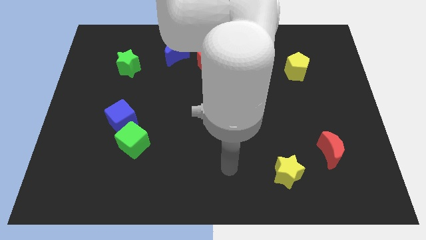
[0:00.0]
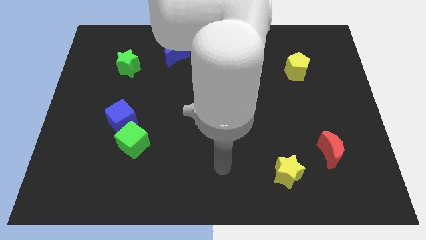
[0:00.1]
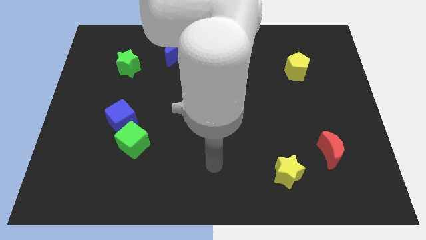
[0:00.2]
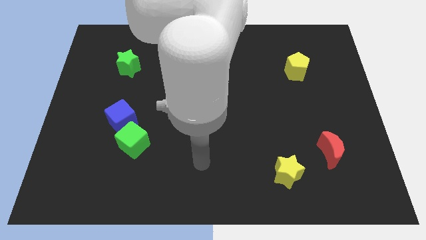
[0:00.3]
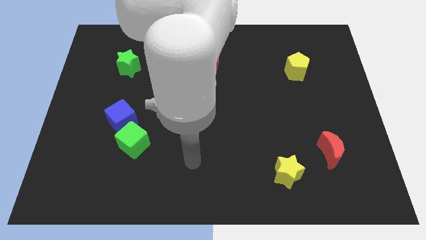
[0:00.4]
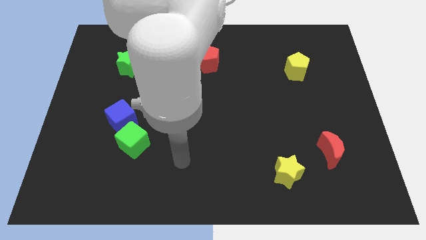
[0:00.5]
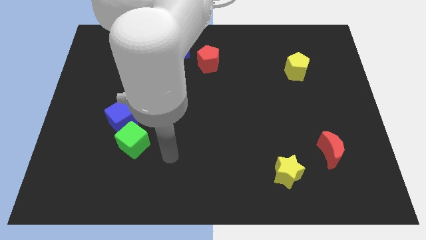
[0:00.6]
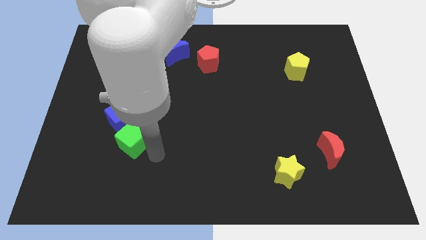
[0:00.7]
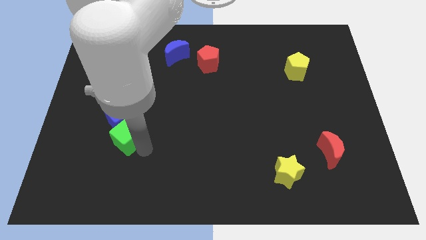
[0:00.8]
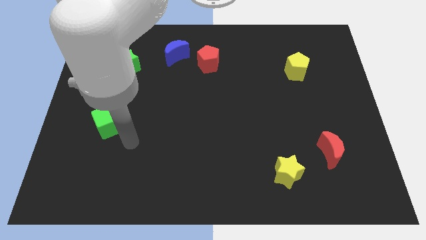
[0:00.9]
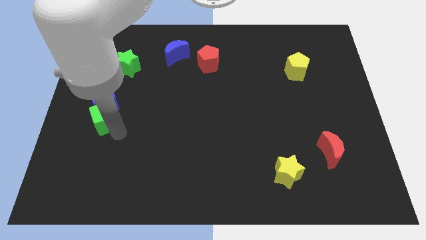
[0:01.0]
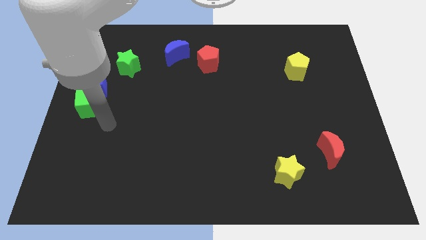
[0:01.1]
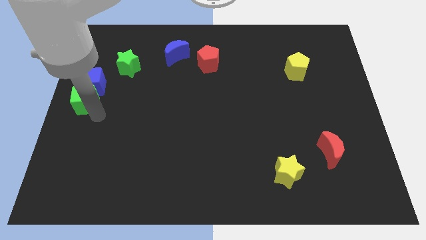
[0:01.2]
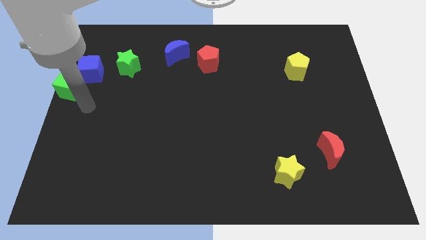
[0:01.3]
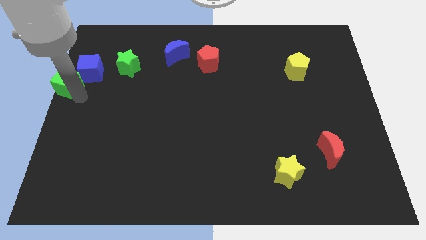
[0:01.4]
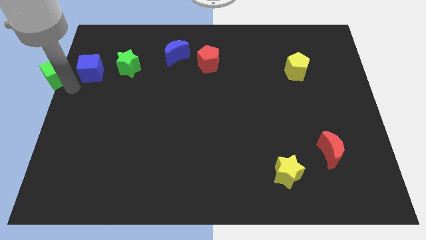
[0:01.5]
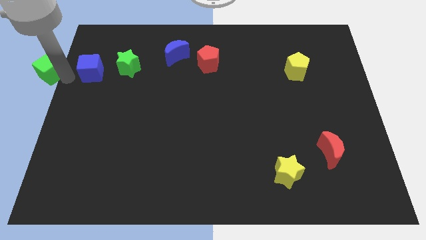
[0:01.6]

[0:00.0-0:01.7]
pull the blue cube apart from the green cube

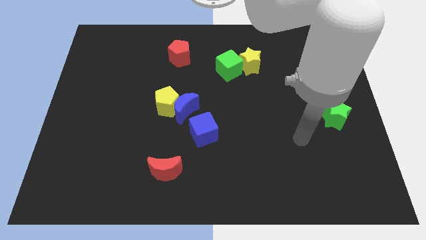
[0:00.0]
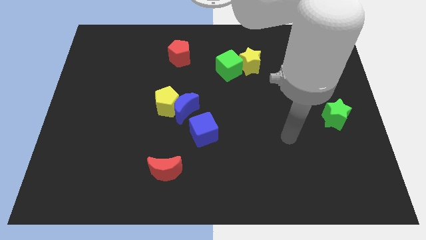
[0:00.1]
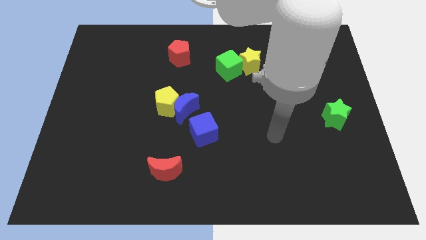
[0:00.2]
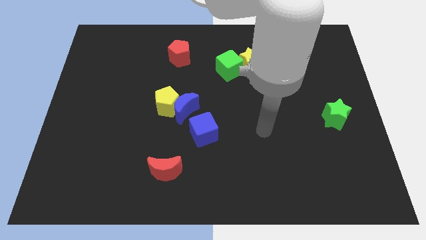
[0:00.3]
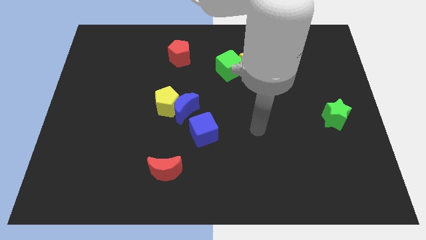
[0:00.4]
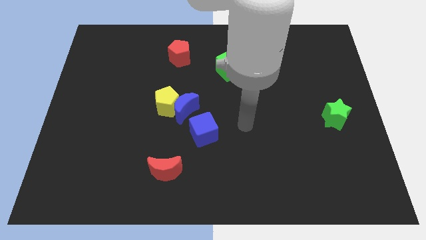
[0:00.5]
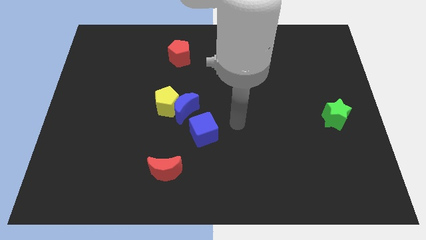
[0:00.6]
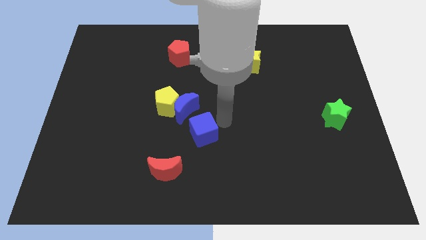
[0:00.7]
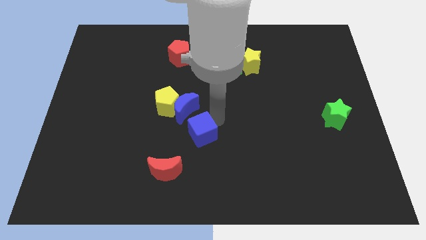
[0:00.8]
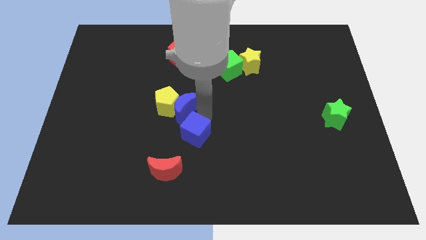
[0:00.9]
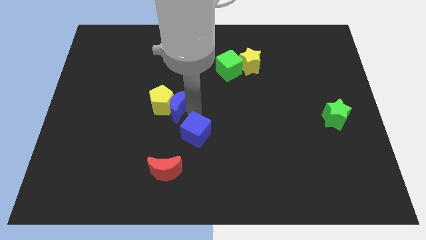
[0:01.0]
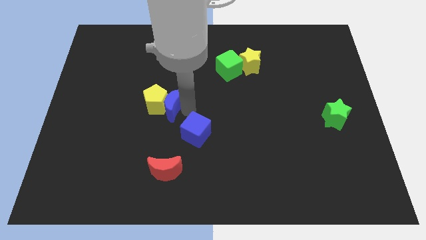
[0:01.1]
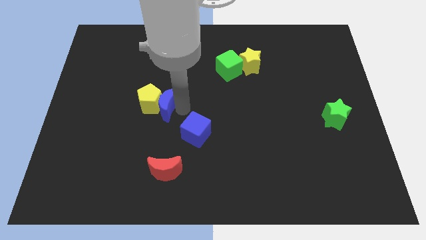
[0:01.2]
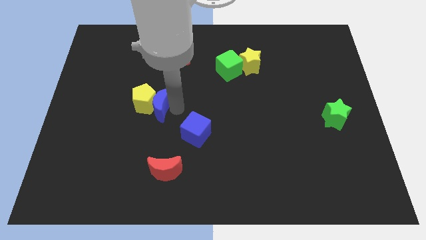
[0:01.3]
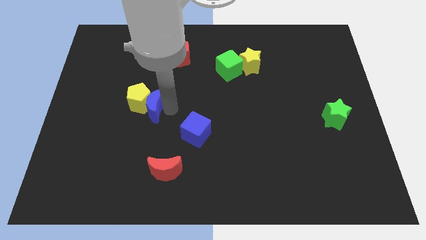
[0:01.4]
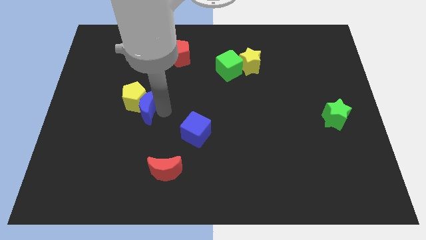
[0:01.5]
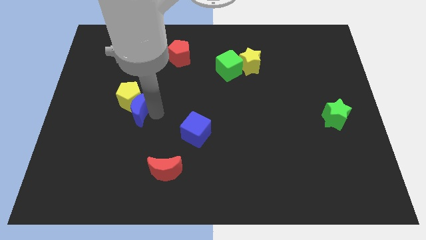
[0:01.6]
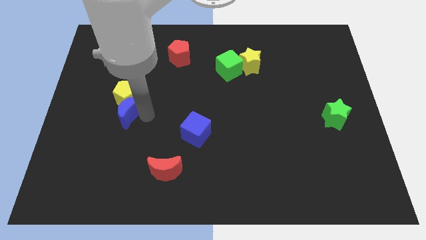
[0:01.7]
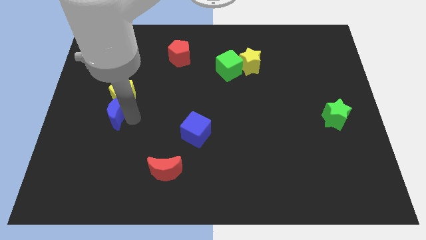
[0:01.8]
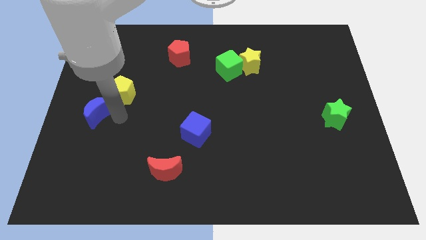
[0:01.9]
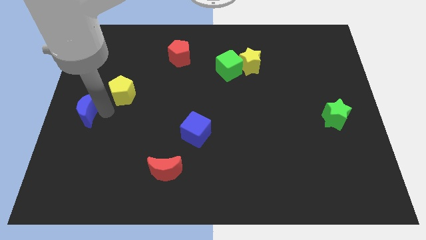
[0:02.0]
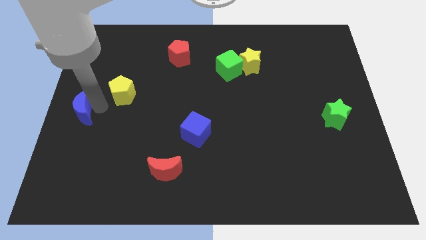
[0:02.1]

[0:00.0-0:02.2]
separate the yellow pentagon from the blue moon

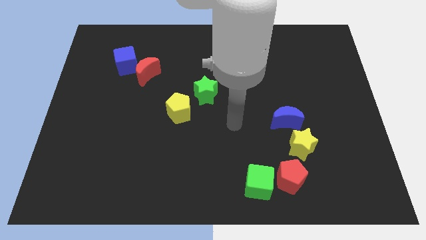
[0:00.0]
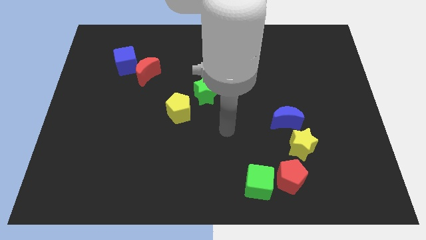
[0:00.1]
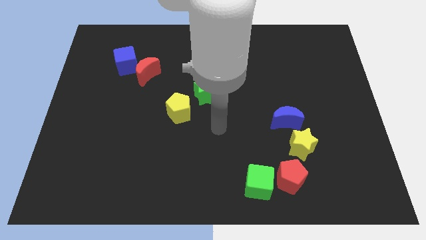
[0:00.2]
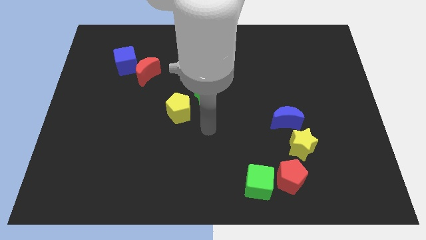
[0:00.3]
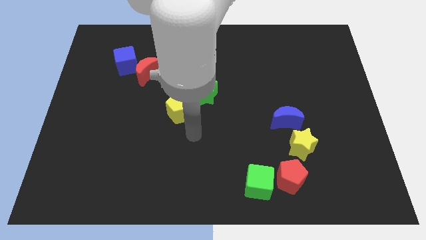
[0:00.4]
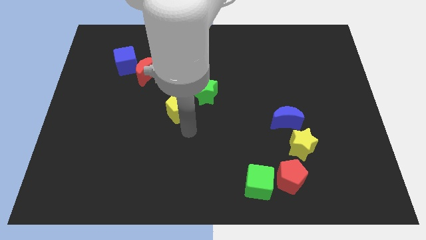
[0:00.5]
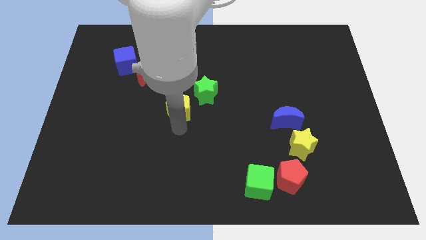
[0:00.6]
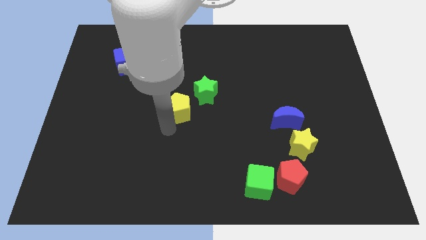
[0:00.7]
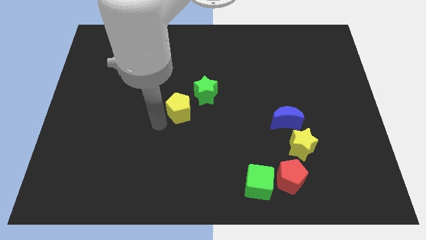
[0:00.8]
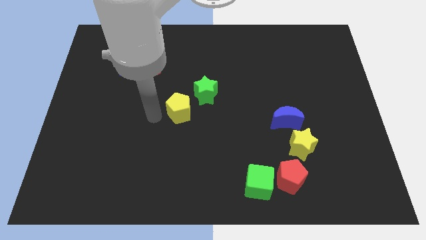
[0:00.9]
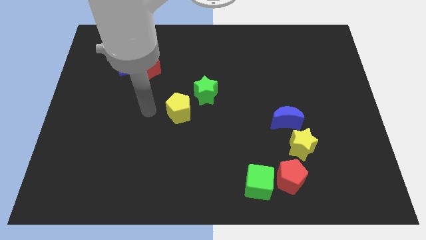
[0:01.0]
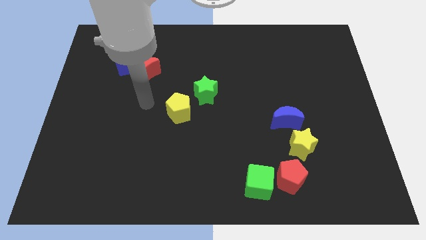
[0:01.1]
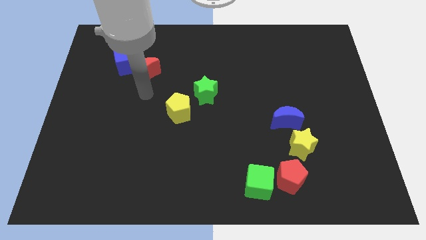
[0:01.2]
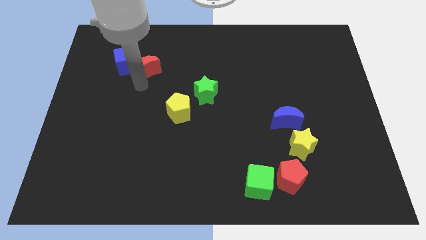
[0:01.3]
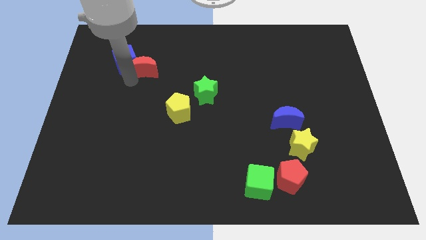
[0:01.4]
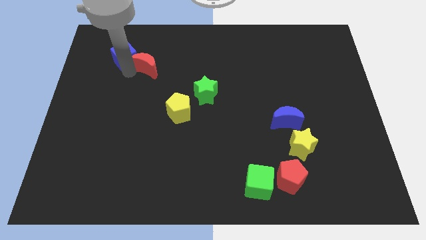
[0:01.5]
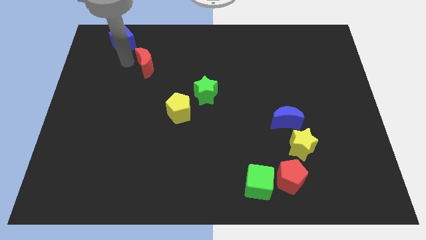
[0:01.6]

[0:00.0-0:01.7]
move the red moon away from the blue cube

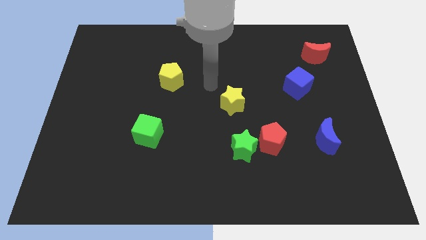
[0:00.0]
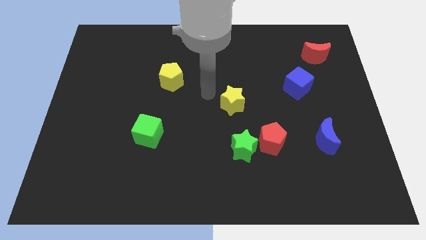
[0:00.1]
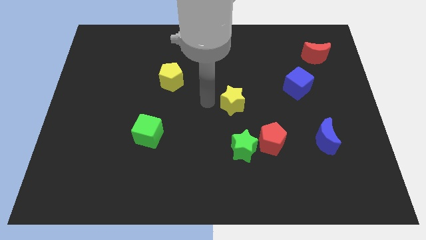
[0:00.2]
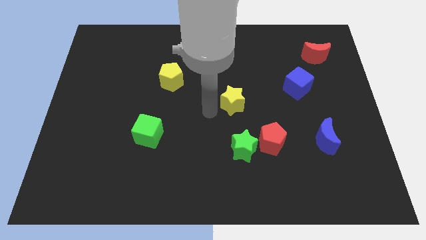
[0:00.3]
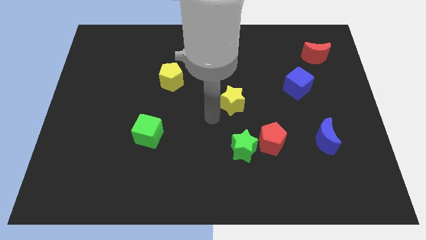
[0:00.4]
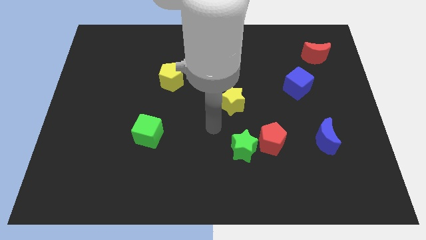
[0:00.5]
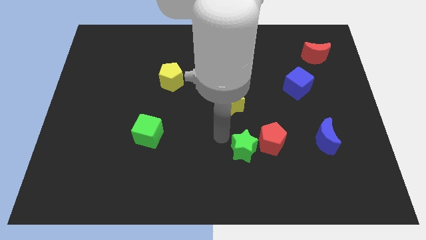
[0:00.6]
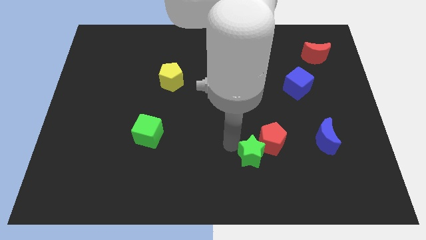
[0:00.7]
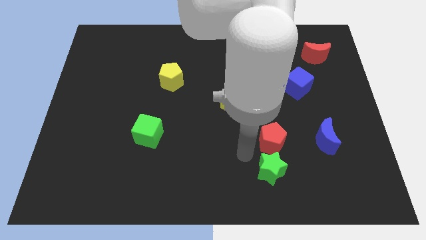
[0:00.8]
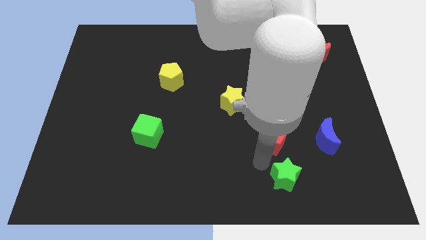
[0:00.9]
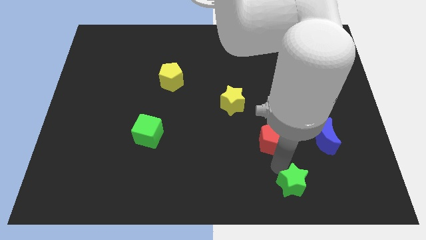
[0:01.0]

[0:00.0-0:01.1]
move the red pentagon away from the green star

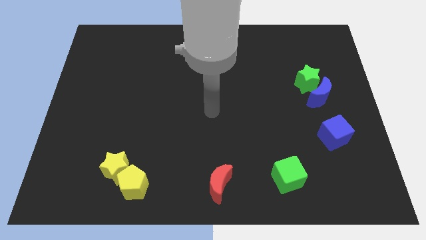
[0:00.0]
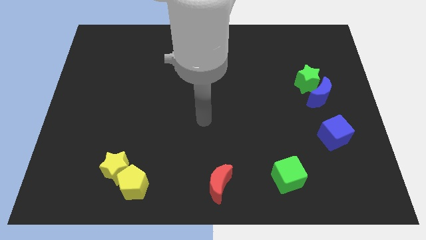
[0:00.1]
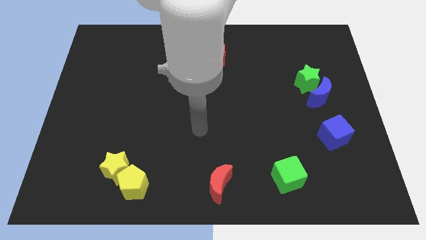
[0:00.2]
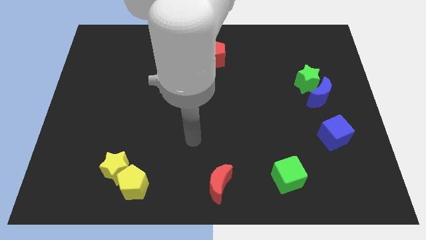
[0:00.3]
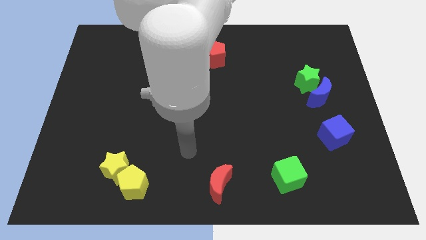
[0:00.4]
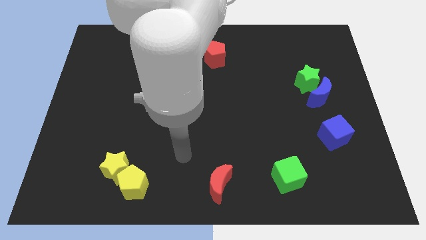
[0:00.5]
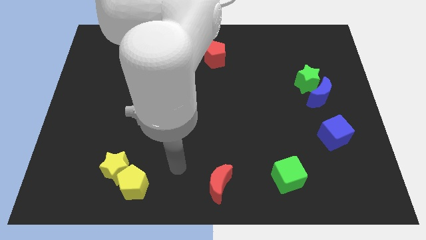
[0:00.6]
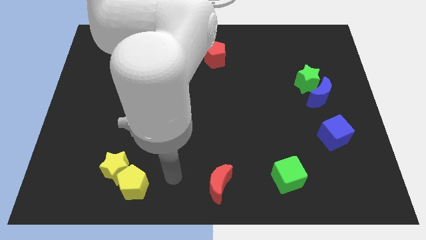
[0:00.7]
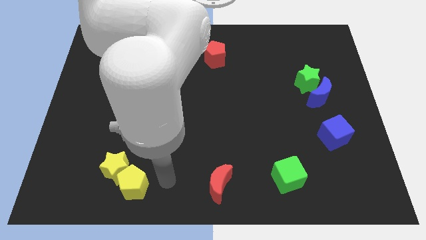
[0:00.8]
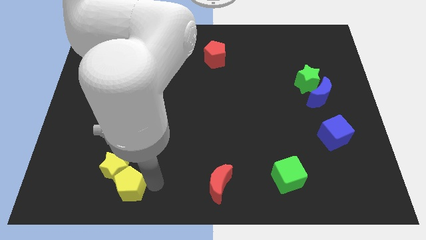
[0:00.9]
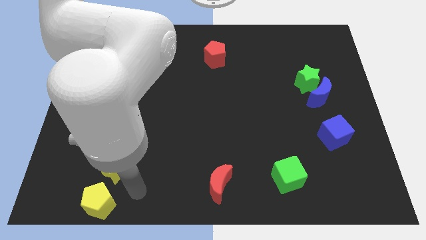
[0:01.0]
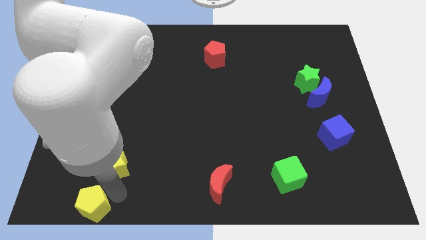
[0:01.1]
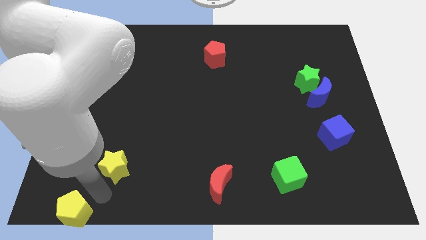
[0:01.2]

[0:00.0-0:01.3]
separate the yellow star from the yellow pentagon

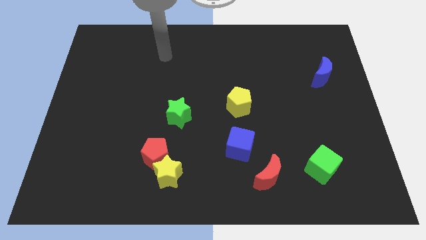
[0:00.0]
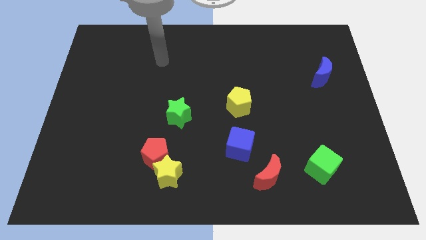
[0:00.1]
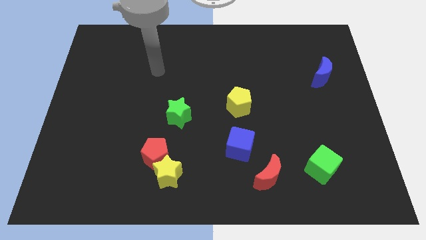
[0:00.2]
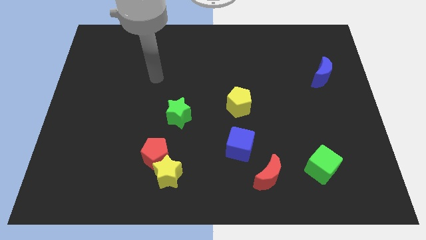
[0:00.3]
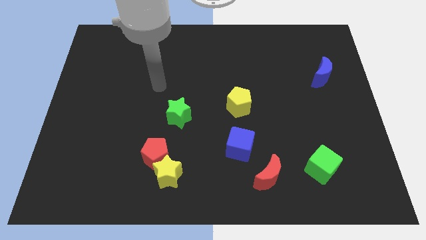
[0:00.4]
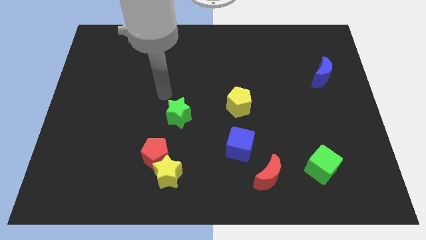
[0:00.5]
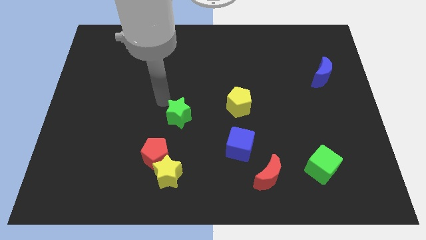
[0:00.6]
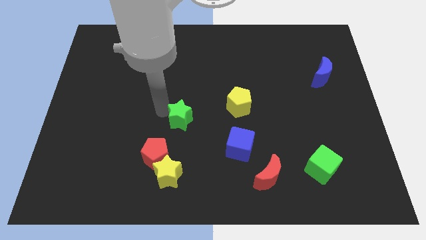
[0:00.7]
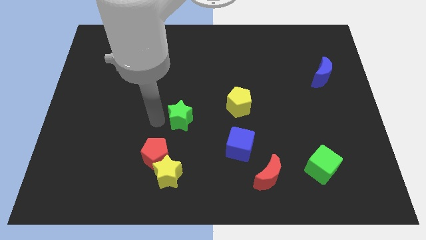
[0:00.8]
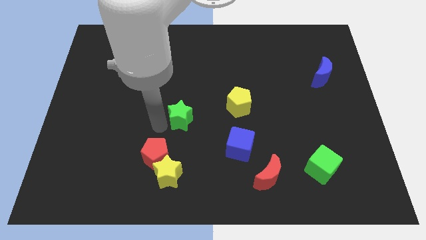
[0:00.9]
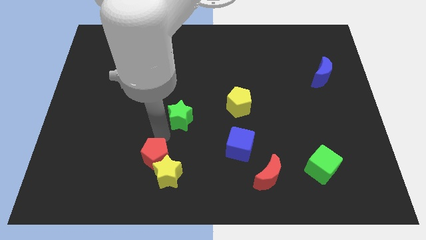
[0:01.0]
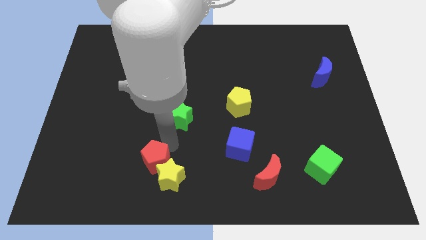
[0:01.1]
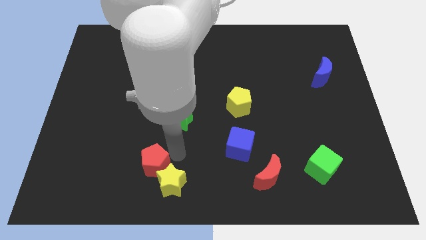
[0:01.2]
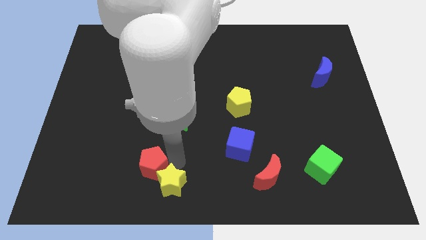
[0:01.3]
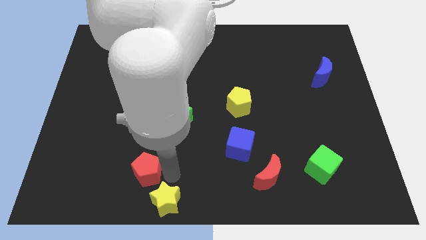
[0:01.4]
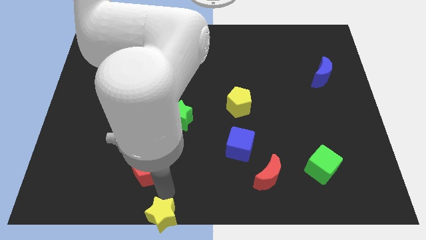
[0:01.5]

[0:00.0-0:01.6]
separate the red pentagon from the yellow star
